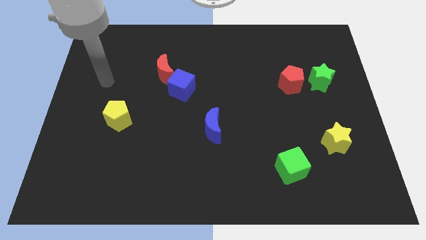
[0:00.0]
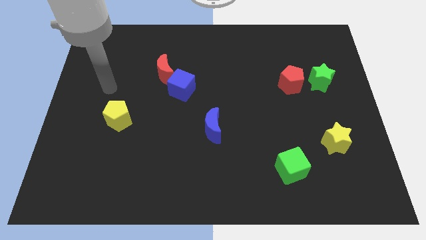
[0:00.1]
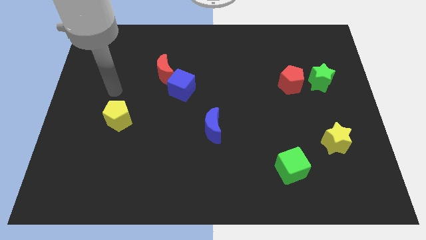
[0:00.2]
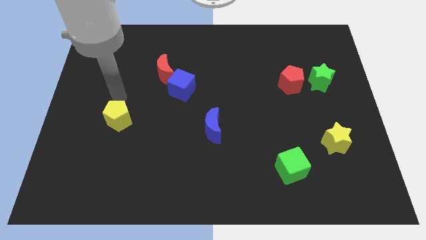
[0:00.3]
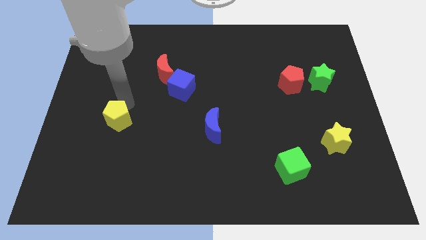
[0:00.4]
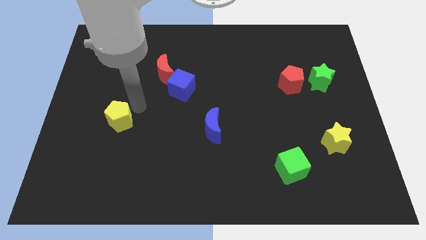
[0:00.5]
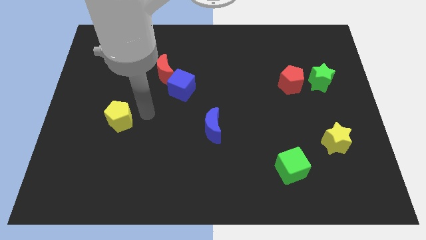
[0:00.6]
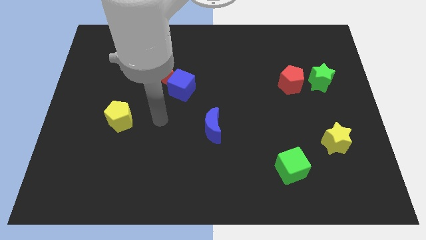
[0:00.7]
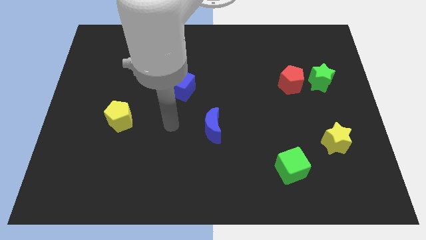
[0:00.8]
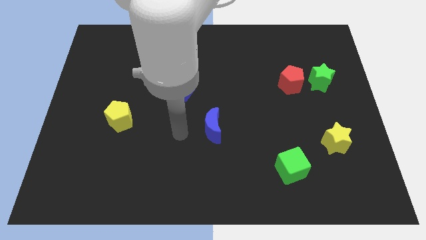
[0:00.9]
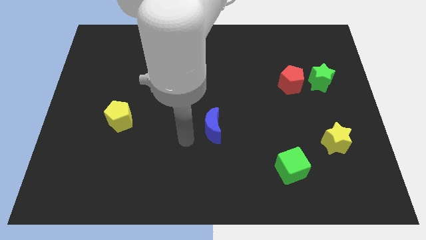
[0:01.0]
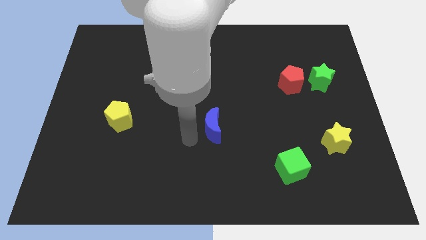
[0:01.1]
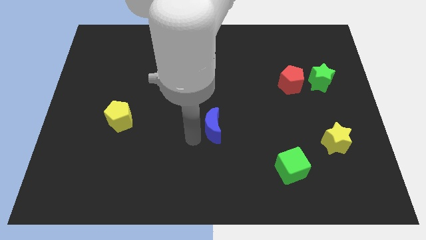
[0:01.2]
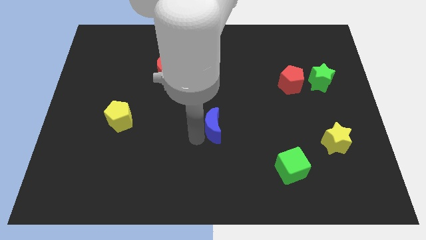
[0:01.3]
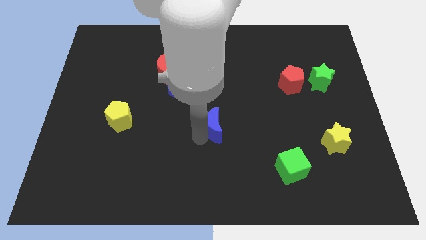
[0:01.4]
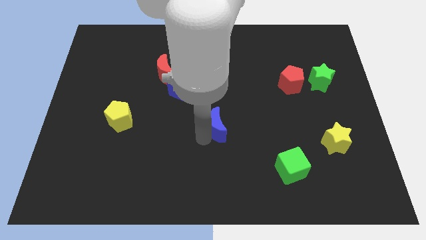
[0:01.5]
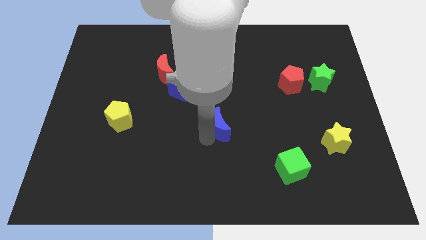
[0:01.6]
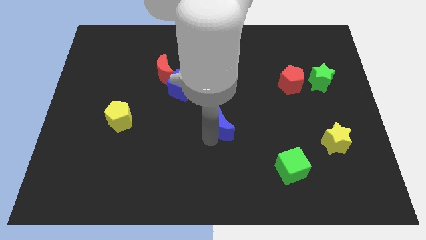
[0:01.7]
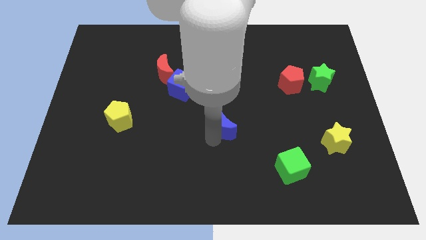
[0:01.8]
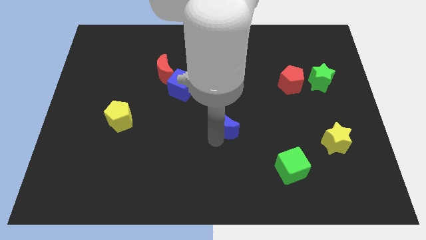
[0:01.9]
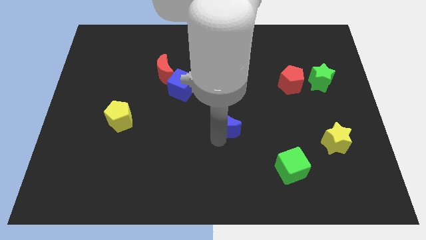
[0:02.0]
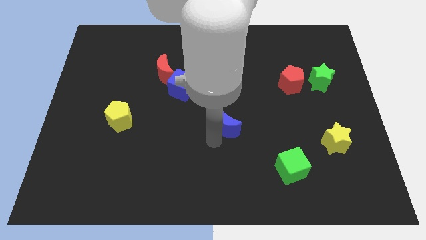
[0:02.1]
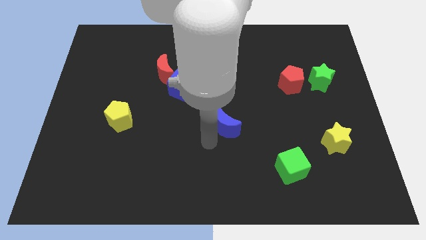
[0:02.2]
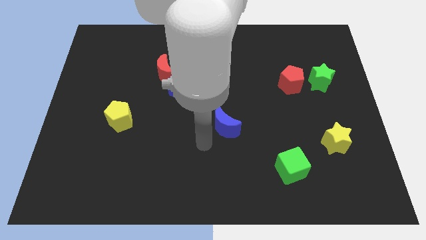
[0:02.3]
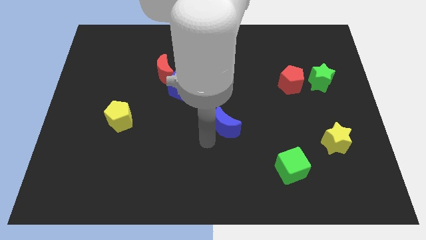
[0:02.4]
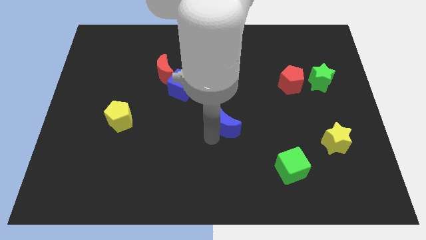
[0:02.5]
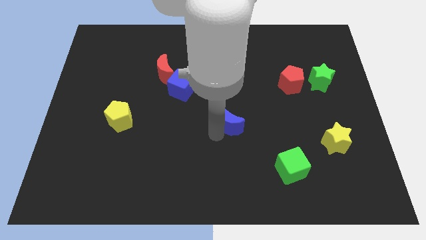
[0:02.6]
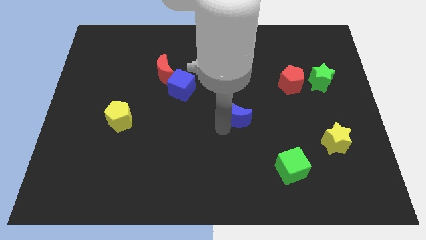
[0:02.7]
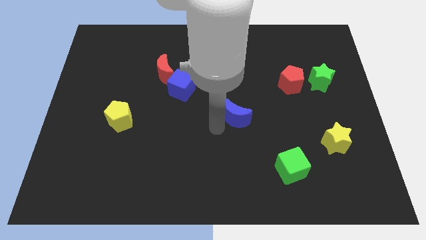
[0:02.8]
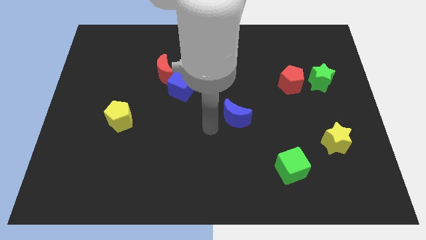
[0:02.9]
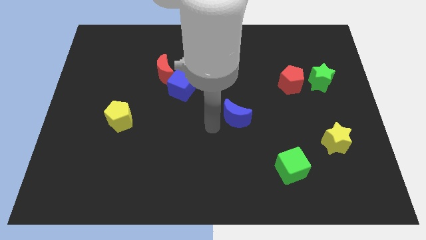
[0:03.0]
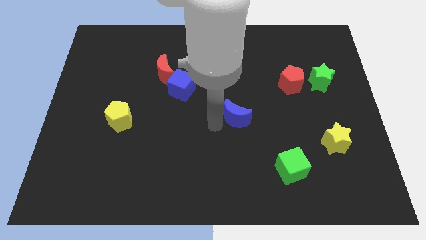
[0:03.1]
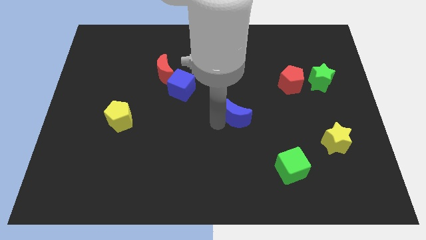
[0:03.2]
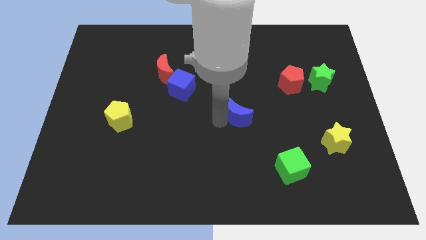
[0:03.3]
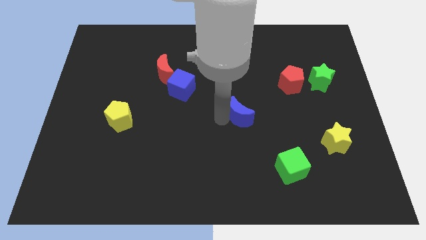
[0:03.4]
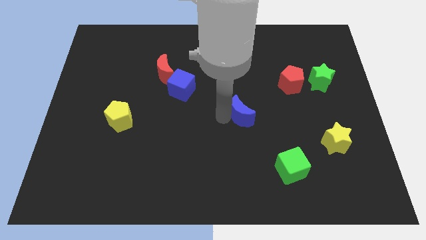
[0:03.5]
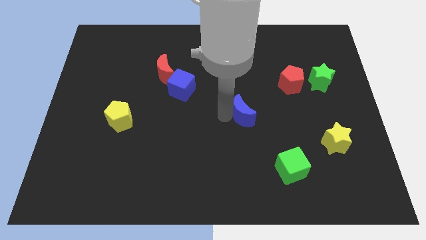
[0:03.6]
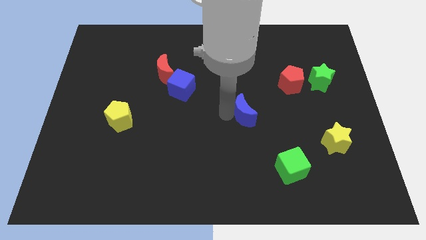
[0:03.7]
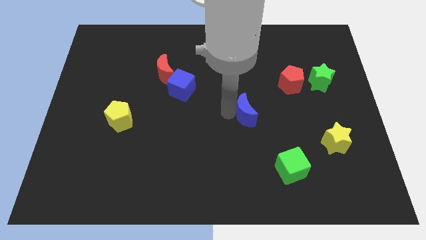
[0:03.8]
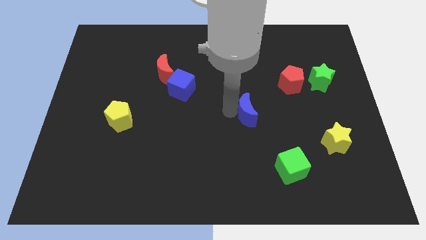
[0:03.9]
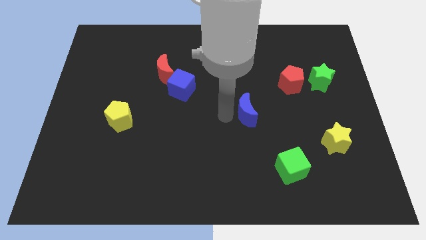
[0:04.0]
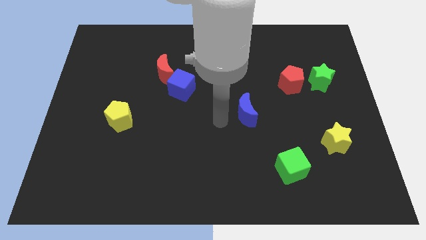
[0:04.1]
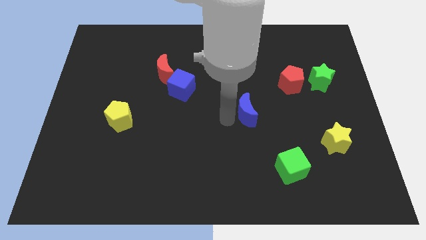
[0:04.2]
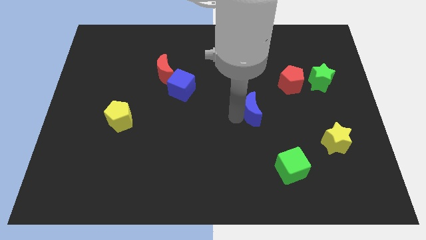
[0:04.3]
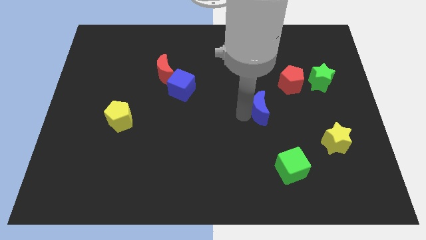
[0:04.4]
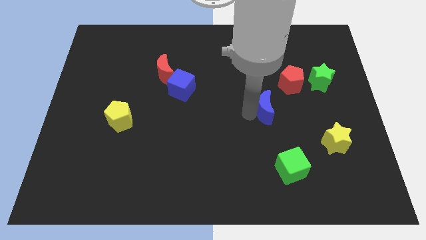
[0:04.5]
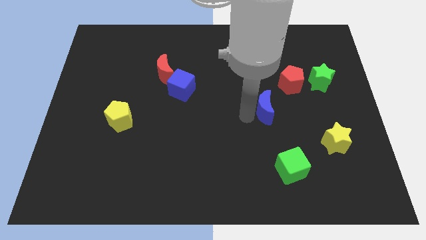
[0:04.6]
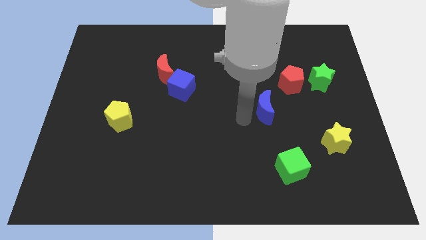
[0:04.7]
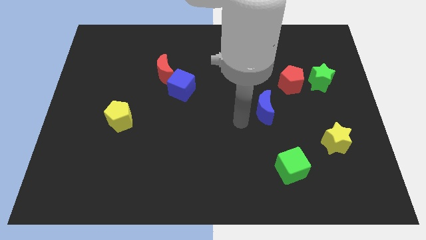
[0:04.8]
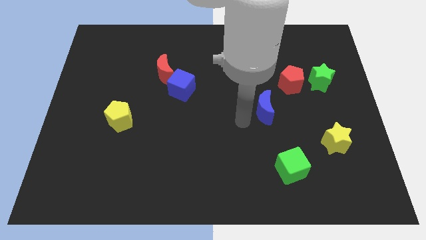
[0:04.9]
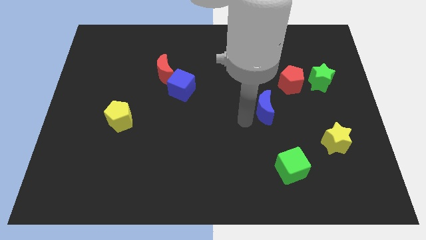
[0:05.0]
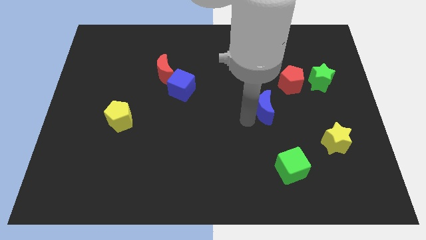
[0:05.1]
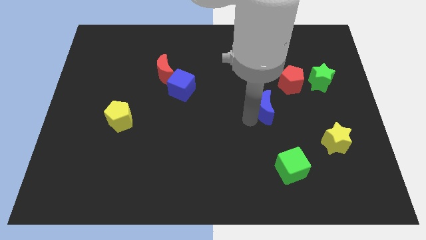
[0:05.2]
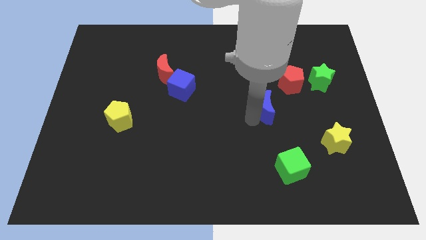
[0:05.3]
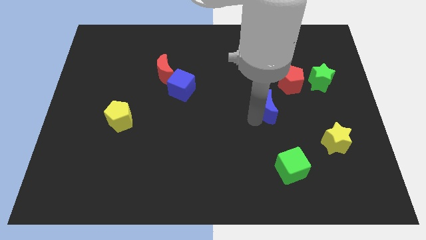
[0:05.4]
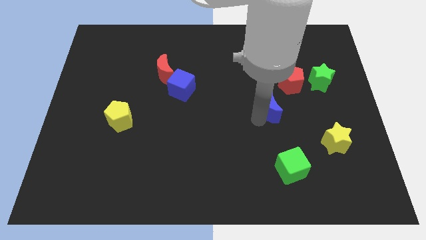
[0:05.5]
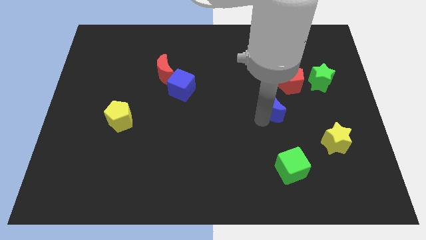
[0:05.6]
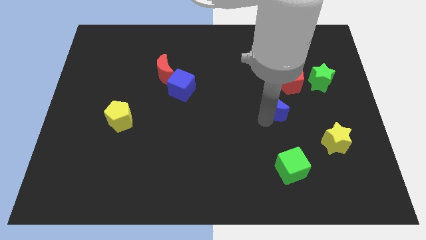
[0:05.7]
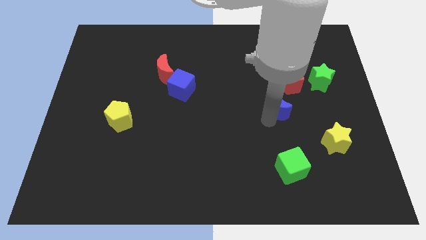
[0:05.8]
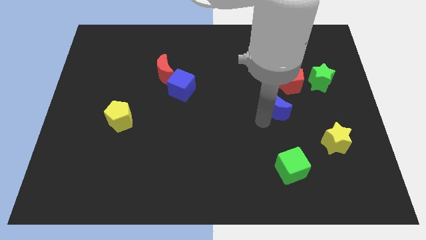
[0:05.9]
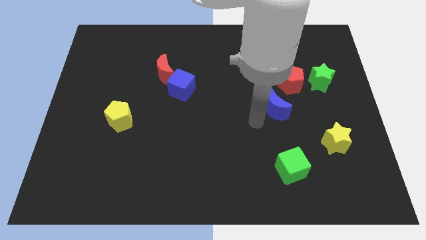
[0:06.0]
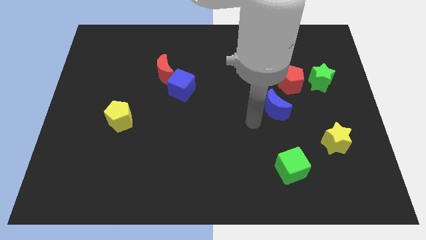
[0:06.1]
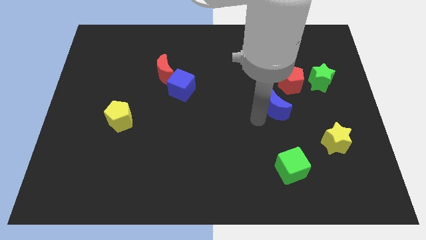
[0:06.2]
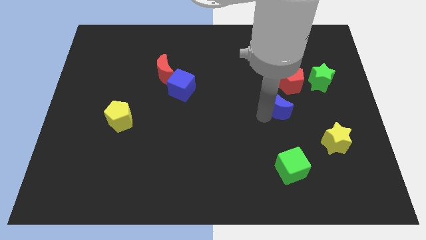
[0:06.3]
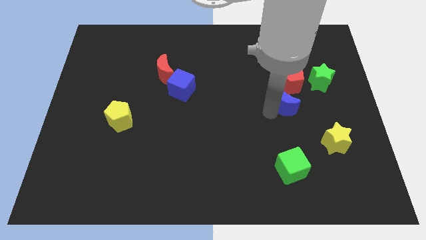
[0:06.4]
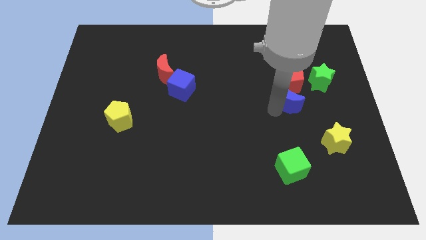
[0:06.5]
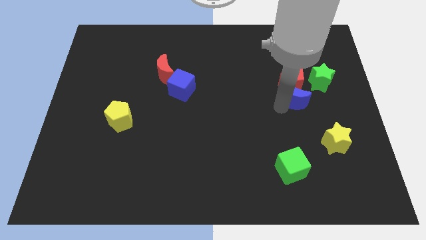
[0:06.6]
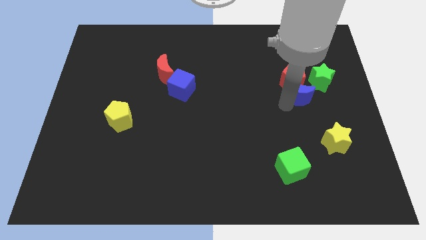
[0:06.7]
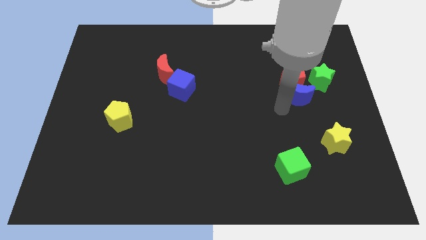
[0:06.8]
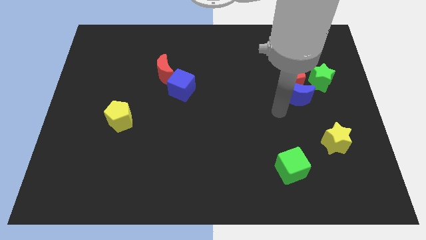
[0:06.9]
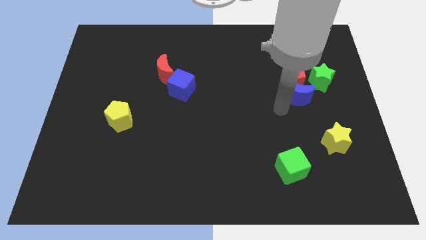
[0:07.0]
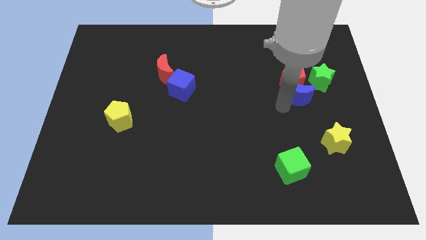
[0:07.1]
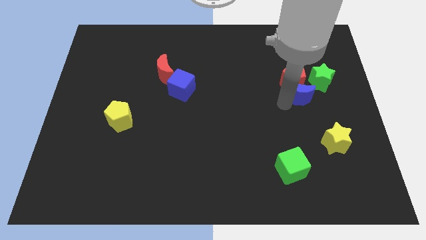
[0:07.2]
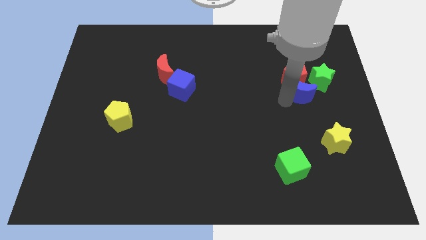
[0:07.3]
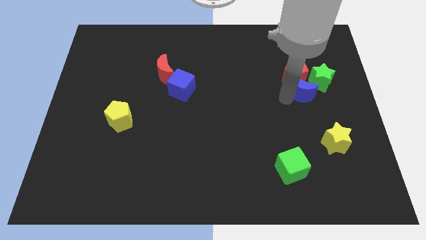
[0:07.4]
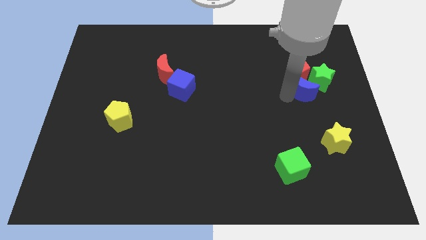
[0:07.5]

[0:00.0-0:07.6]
put the blue moon to the green star

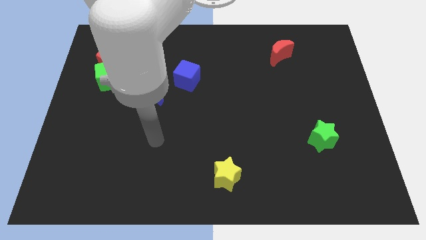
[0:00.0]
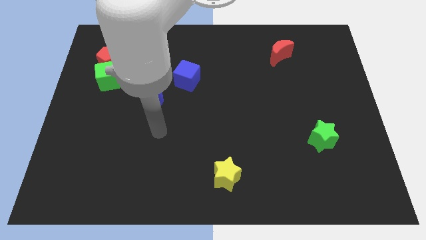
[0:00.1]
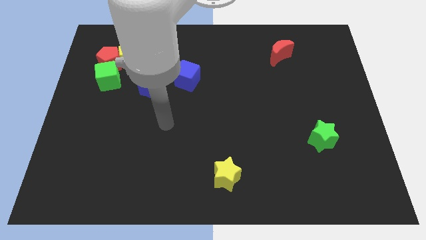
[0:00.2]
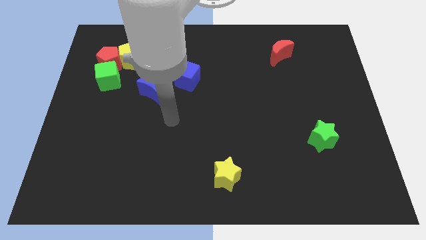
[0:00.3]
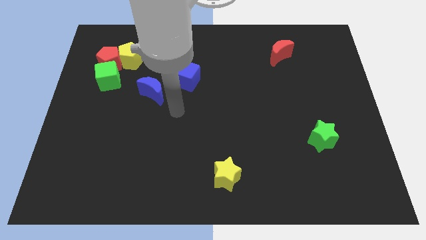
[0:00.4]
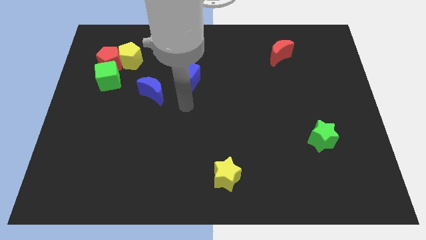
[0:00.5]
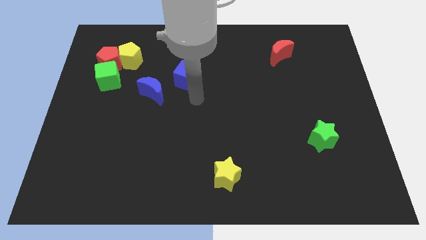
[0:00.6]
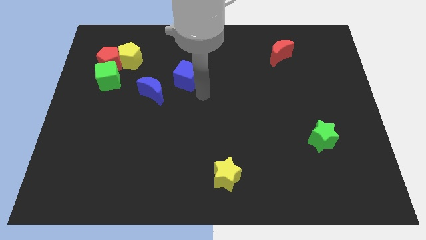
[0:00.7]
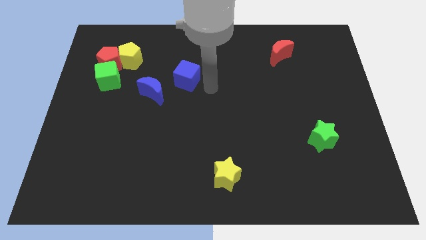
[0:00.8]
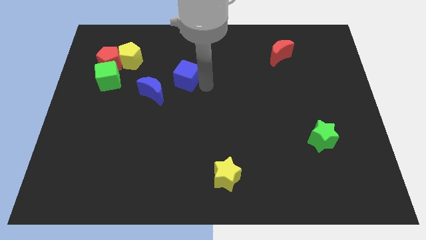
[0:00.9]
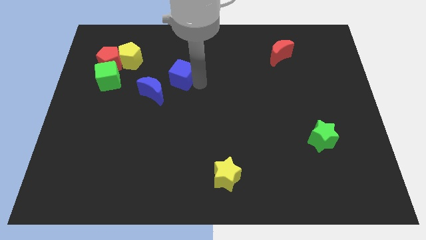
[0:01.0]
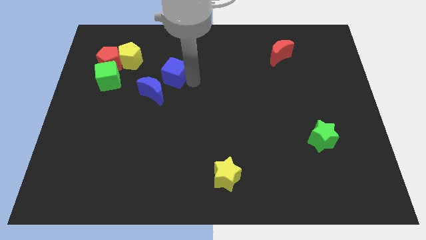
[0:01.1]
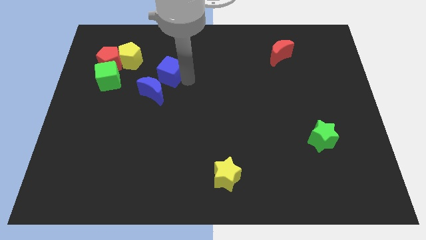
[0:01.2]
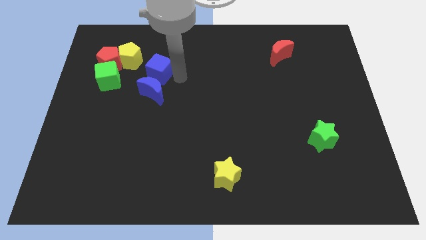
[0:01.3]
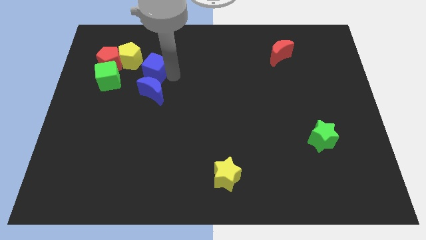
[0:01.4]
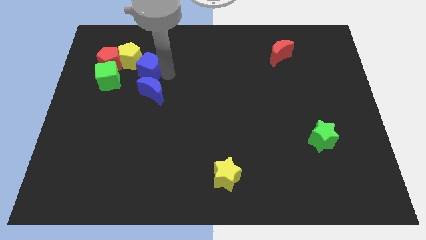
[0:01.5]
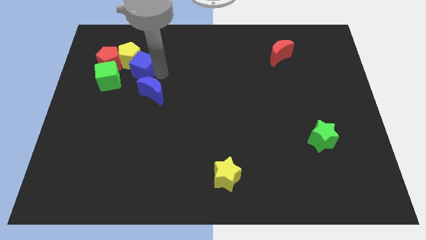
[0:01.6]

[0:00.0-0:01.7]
slide the blue cube next to the yellow pentagon
